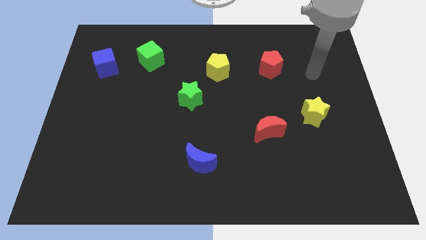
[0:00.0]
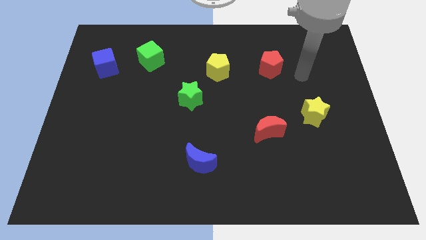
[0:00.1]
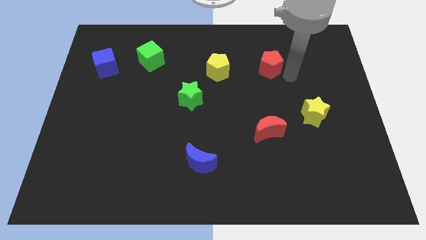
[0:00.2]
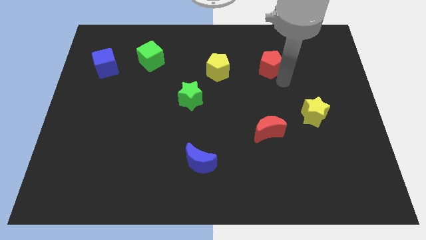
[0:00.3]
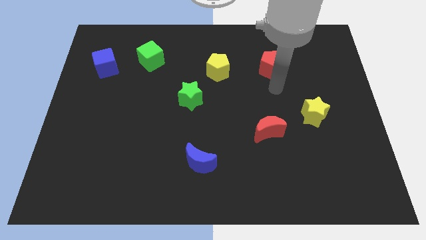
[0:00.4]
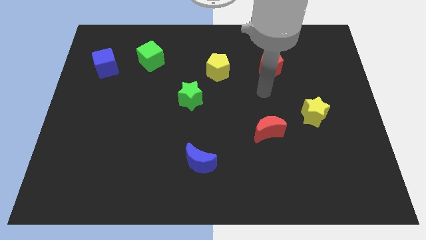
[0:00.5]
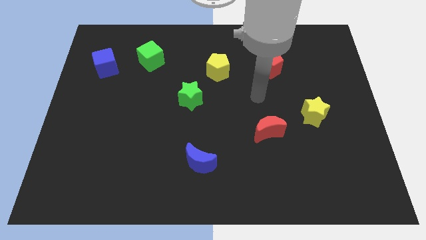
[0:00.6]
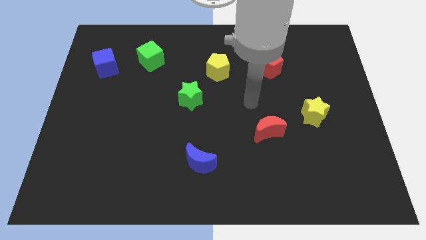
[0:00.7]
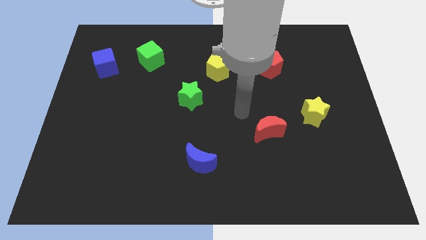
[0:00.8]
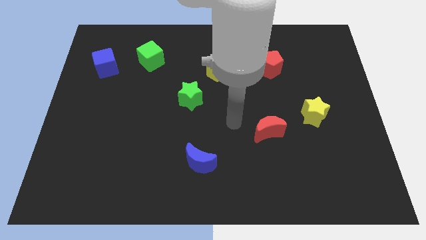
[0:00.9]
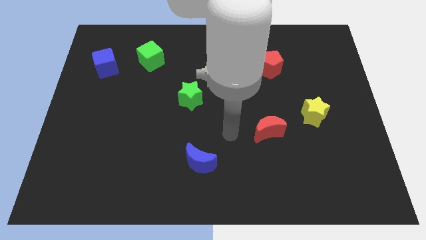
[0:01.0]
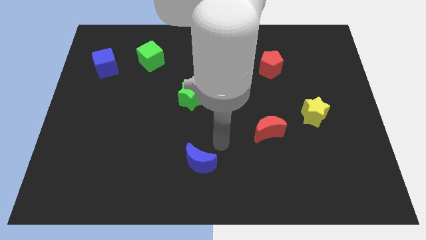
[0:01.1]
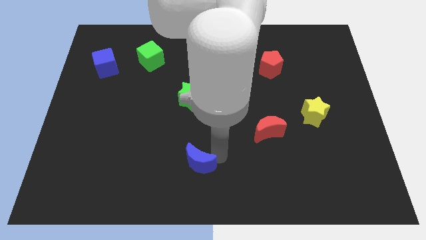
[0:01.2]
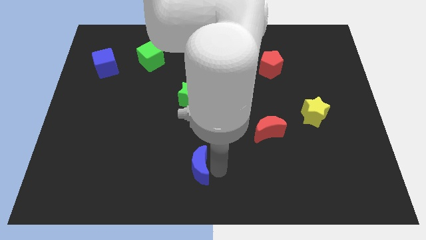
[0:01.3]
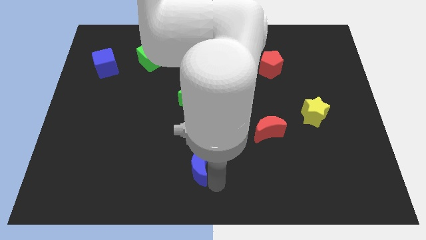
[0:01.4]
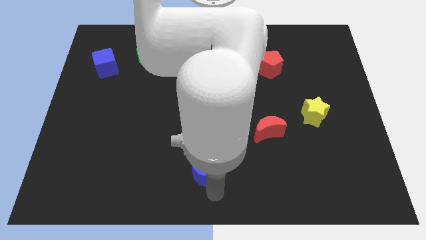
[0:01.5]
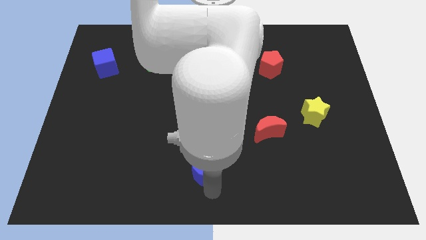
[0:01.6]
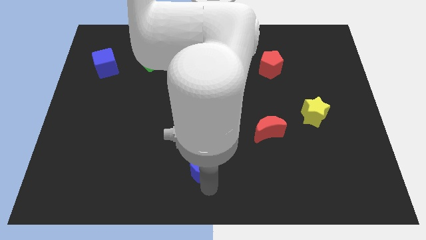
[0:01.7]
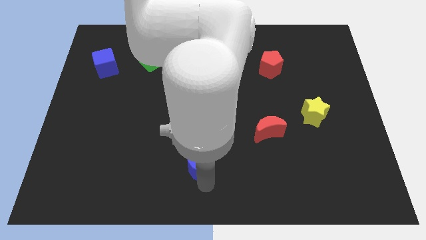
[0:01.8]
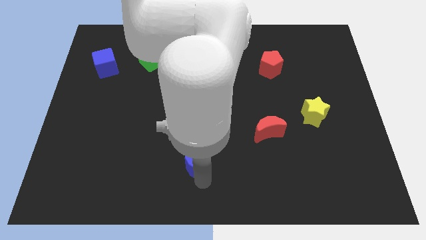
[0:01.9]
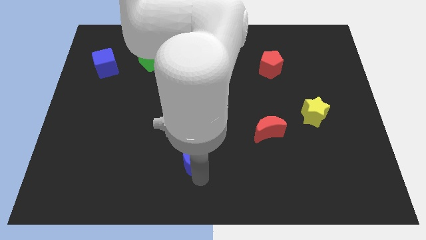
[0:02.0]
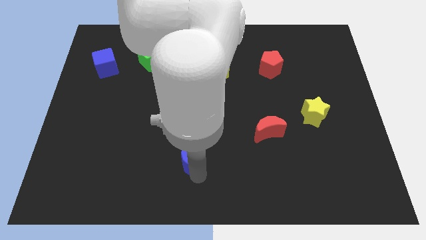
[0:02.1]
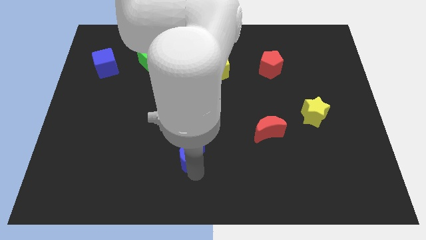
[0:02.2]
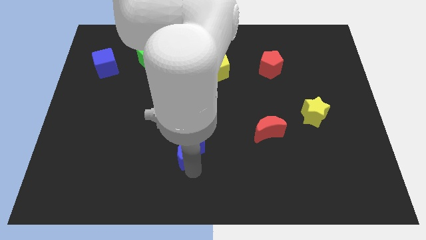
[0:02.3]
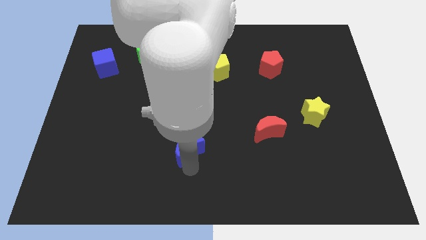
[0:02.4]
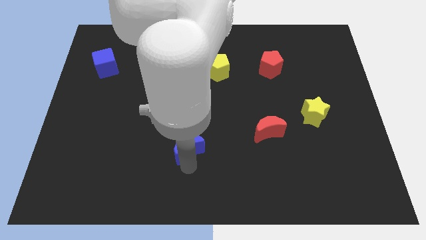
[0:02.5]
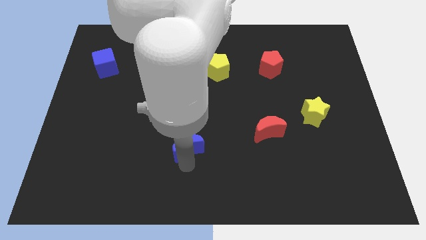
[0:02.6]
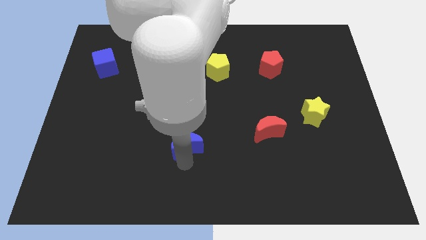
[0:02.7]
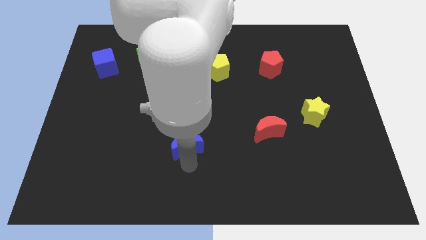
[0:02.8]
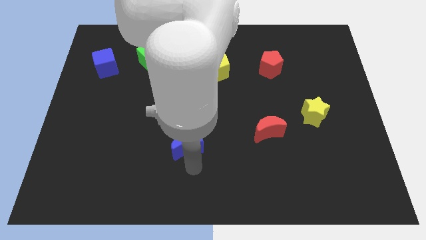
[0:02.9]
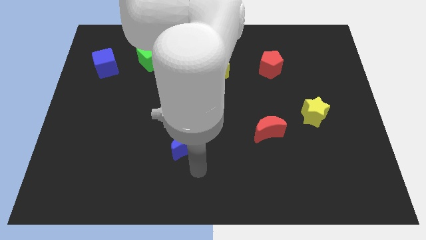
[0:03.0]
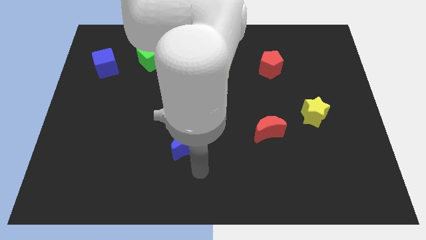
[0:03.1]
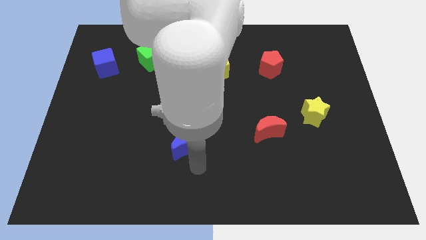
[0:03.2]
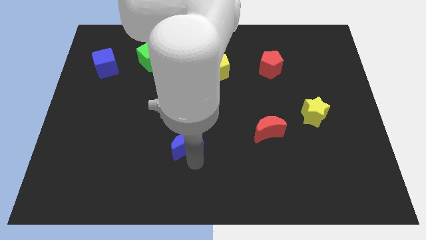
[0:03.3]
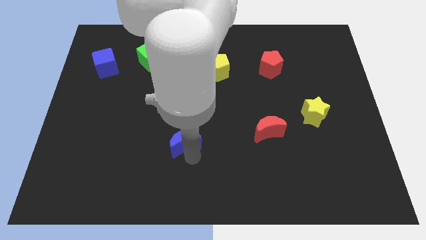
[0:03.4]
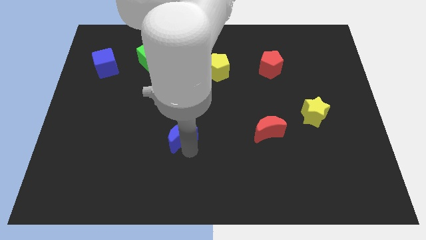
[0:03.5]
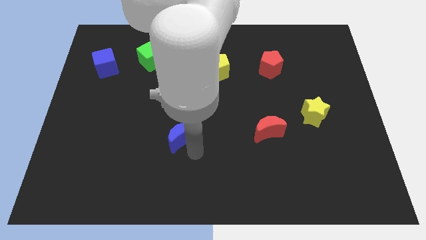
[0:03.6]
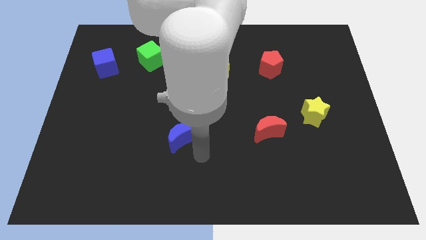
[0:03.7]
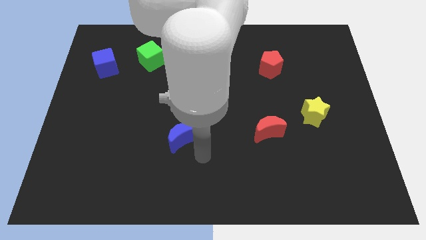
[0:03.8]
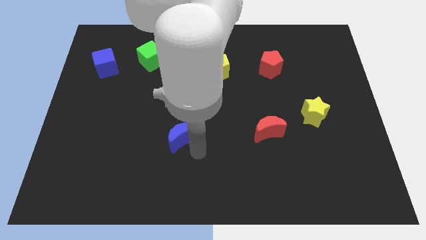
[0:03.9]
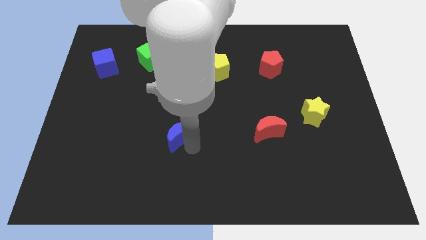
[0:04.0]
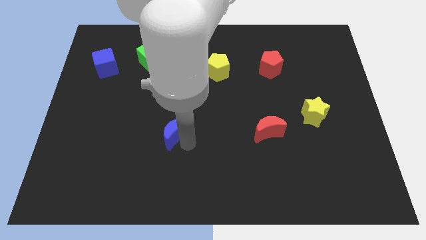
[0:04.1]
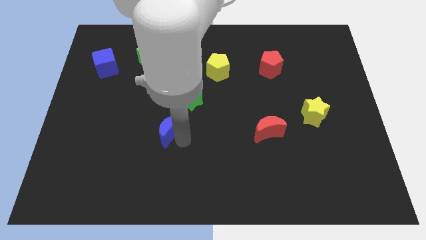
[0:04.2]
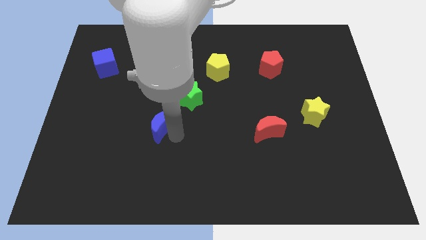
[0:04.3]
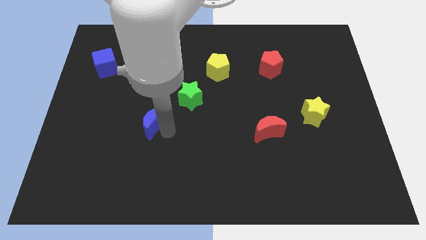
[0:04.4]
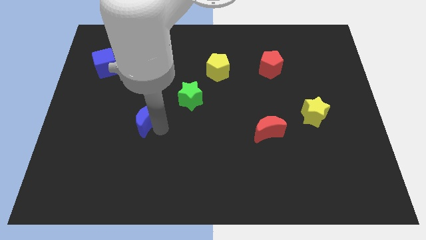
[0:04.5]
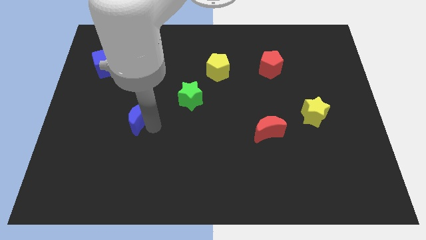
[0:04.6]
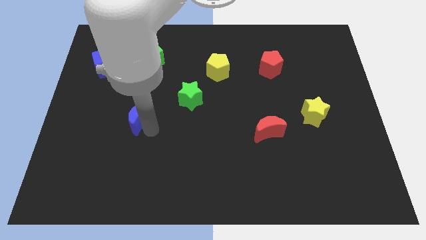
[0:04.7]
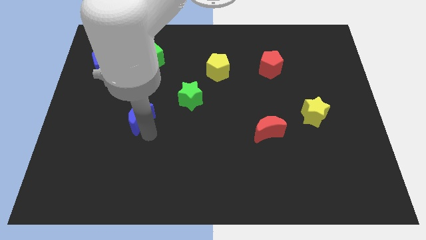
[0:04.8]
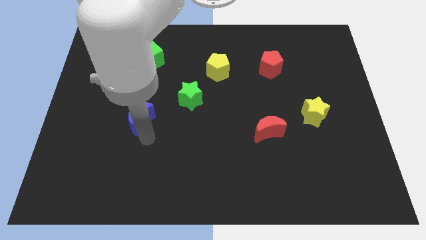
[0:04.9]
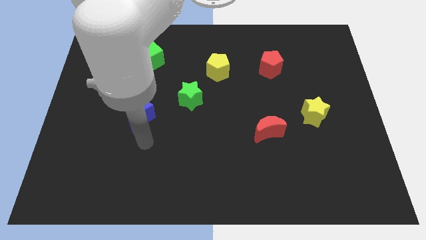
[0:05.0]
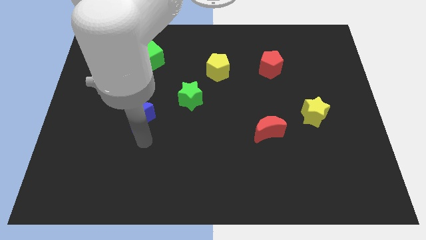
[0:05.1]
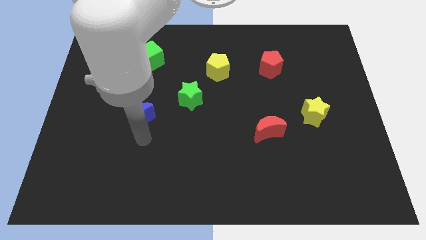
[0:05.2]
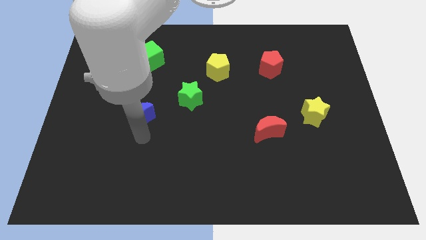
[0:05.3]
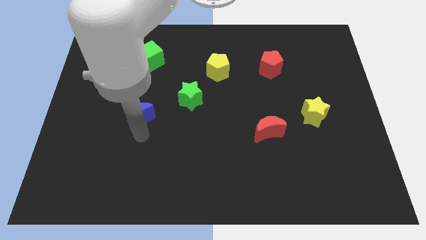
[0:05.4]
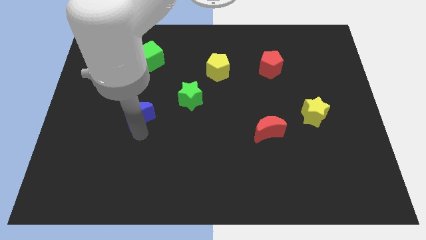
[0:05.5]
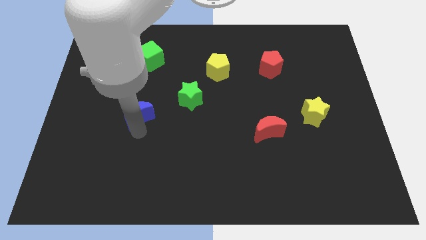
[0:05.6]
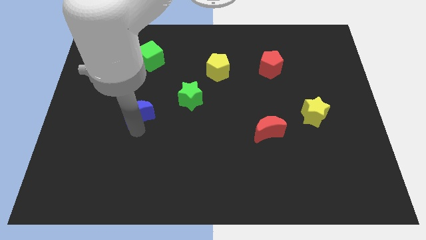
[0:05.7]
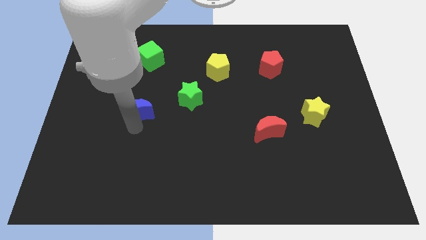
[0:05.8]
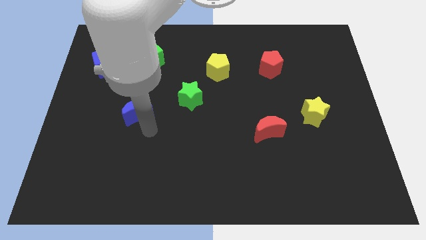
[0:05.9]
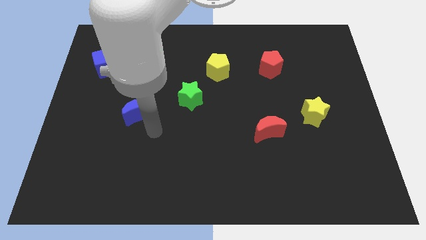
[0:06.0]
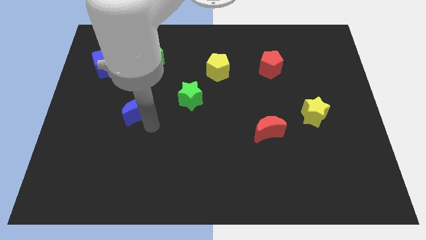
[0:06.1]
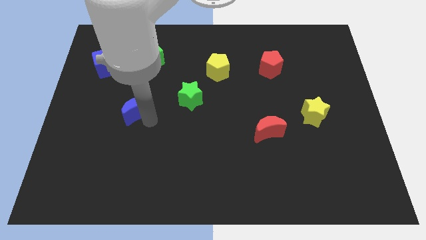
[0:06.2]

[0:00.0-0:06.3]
slide the blue moon up and then left

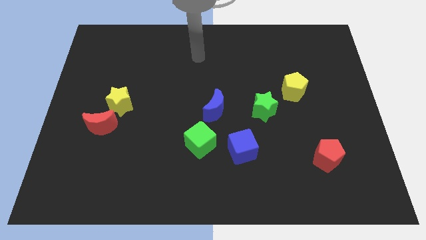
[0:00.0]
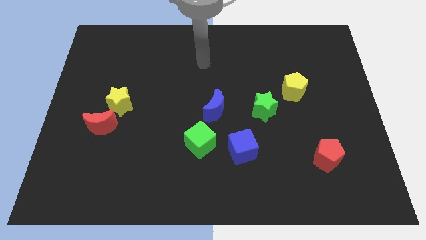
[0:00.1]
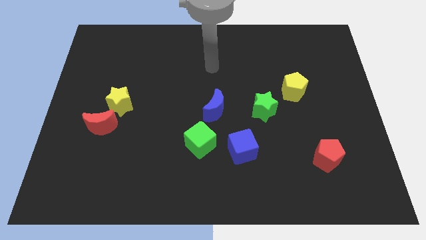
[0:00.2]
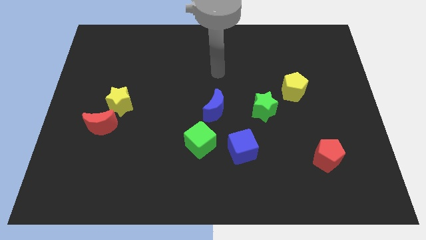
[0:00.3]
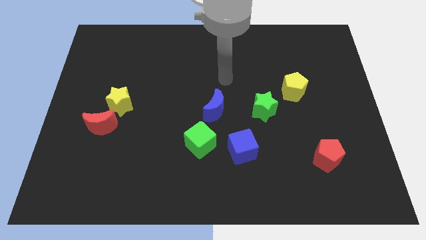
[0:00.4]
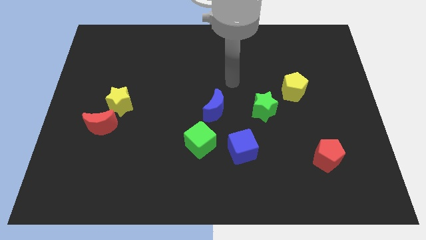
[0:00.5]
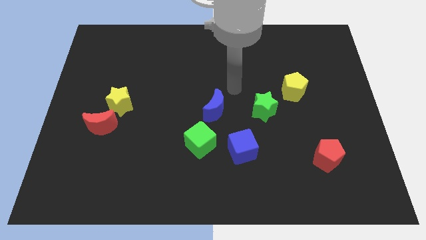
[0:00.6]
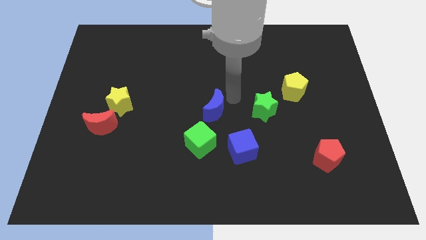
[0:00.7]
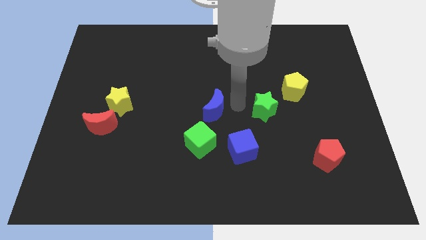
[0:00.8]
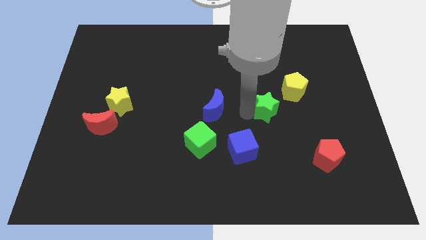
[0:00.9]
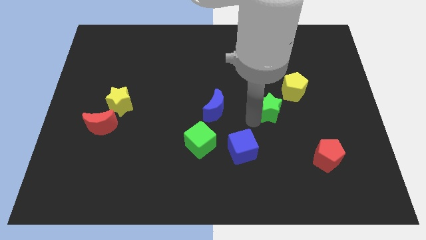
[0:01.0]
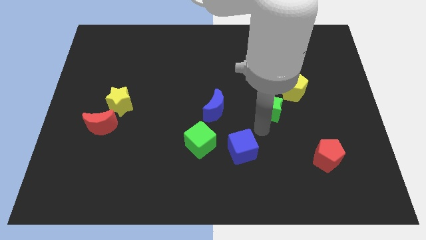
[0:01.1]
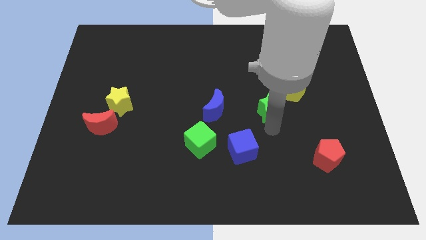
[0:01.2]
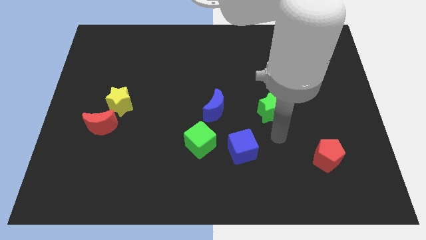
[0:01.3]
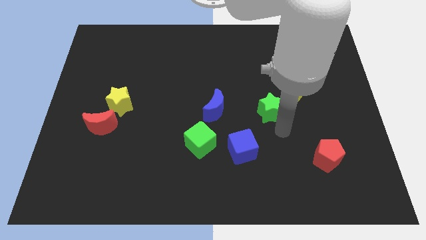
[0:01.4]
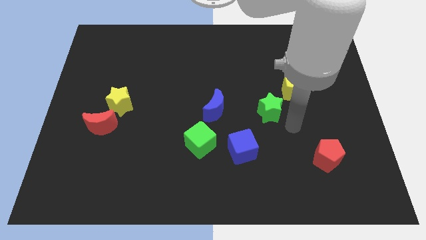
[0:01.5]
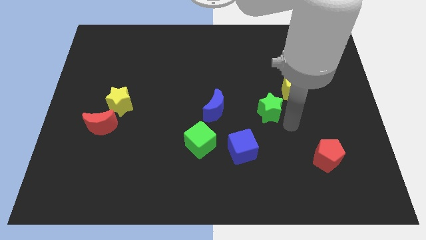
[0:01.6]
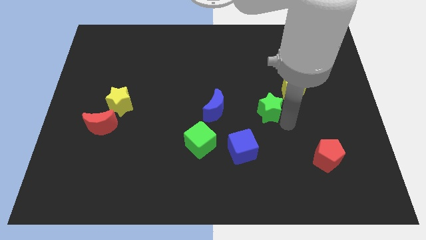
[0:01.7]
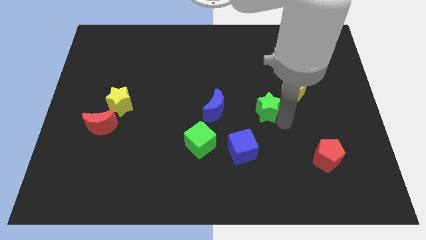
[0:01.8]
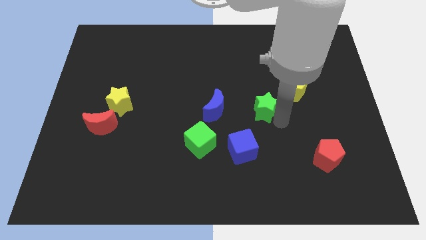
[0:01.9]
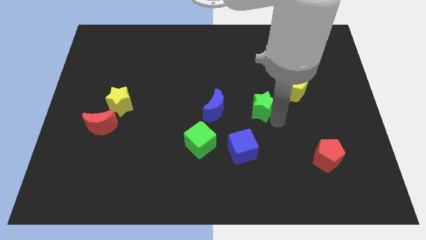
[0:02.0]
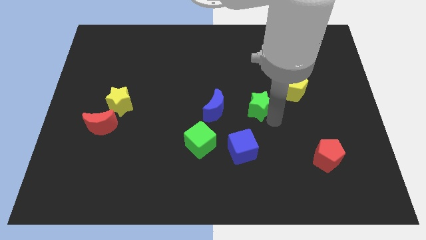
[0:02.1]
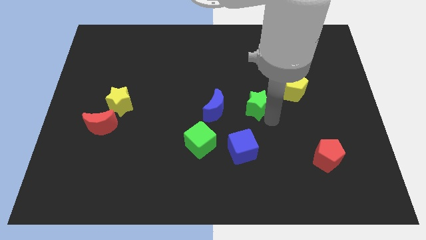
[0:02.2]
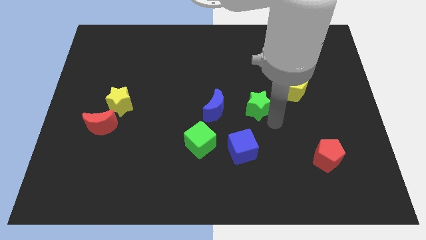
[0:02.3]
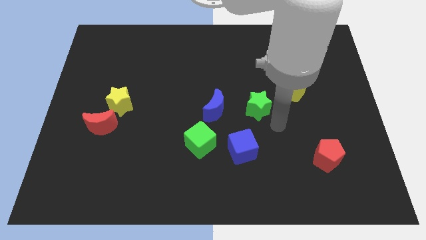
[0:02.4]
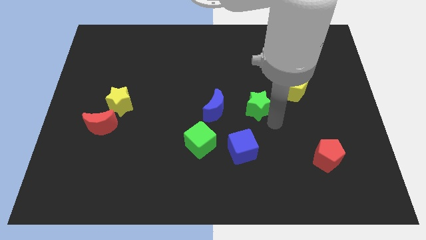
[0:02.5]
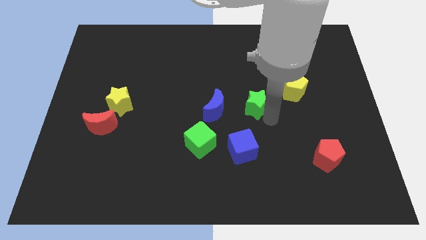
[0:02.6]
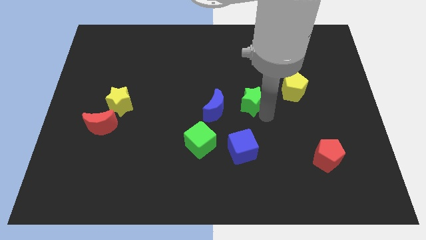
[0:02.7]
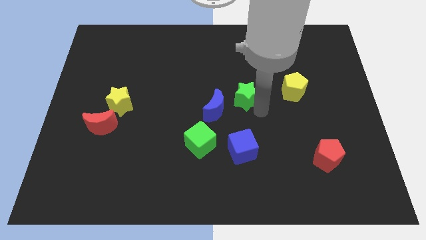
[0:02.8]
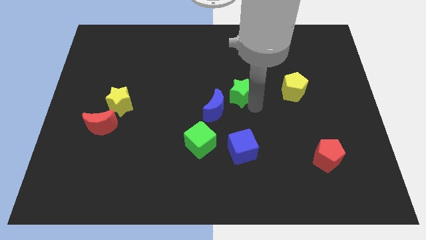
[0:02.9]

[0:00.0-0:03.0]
slightly slide the green star up and to the left
